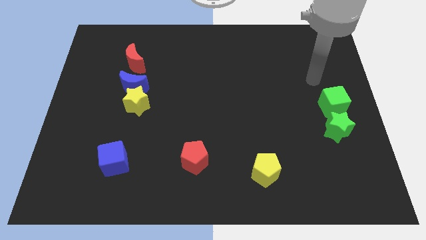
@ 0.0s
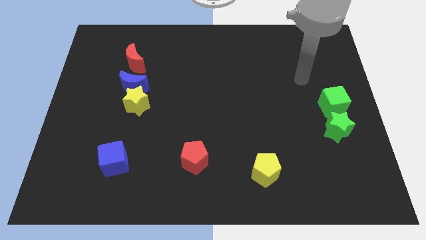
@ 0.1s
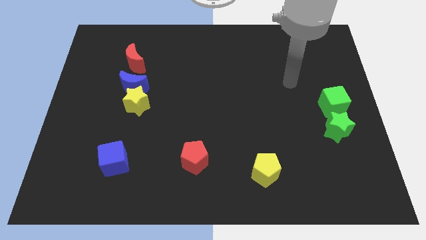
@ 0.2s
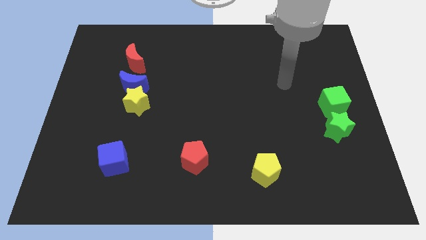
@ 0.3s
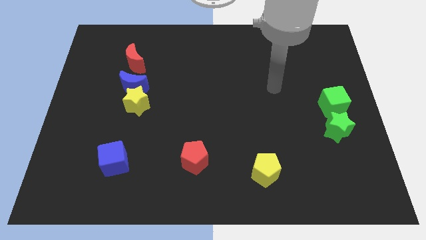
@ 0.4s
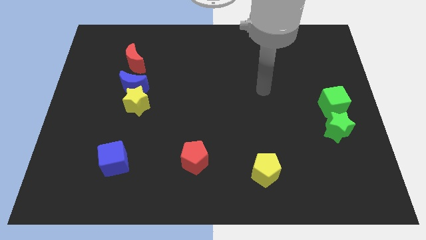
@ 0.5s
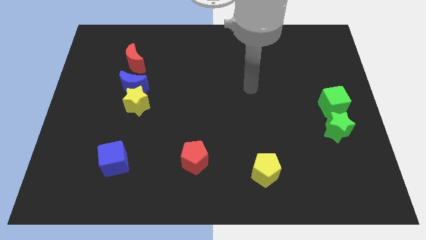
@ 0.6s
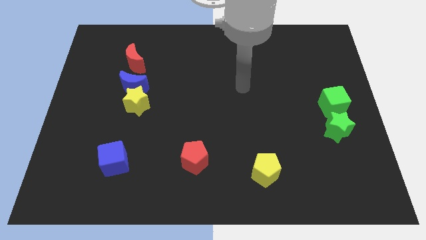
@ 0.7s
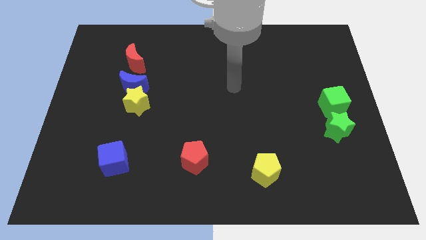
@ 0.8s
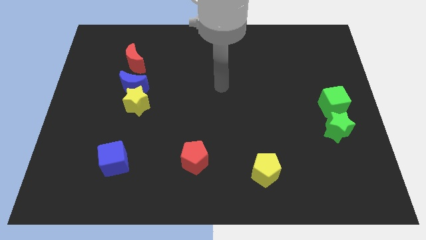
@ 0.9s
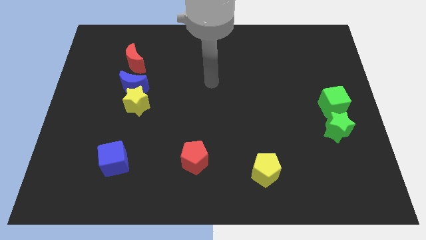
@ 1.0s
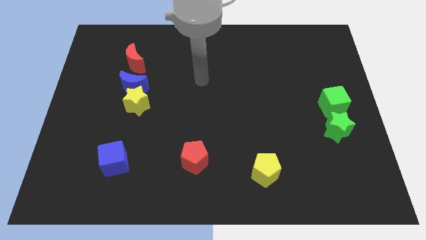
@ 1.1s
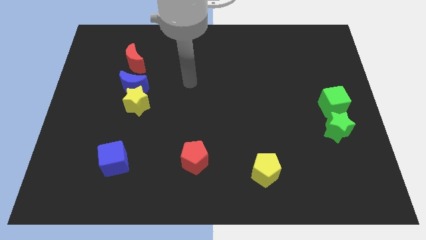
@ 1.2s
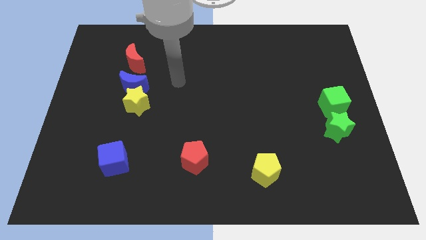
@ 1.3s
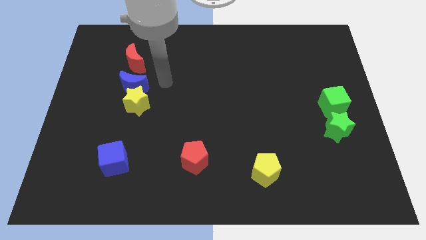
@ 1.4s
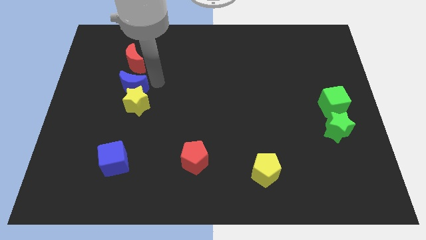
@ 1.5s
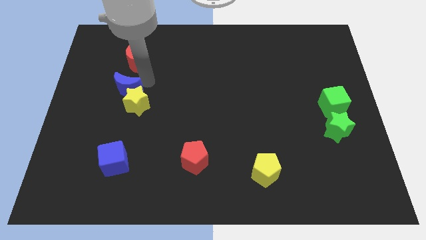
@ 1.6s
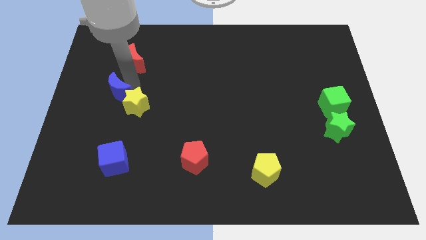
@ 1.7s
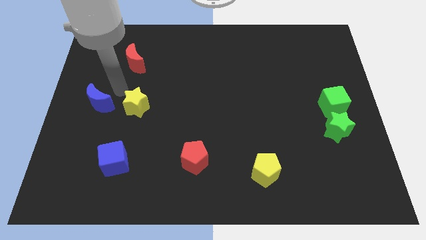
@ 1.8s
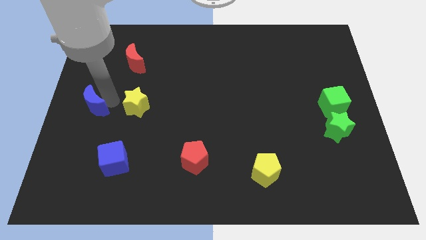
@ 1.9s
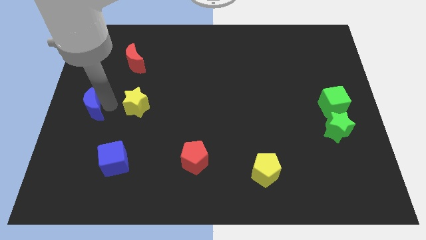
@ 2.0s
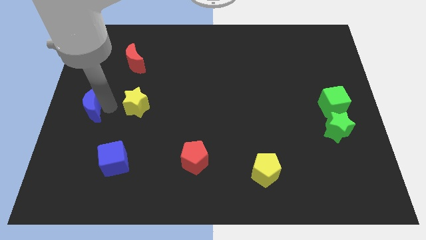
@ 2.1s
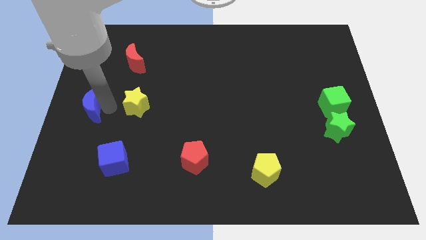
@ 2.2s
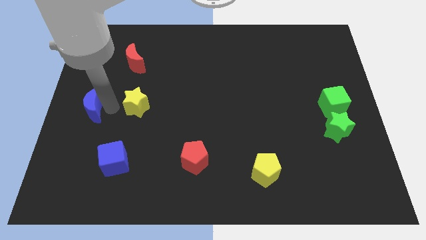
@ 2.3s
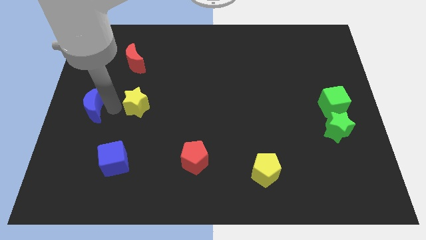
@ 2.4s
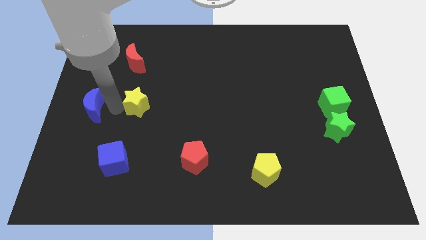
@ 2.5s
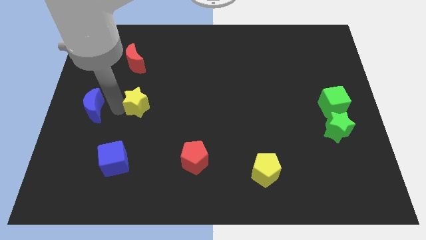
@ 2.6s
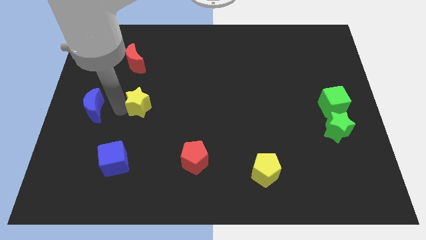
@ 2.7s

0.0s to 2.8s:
move the yellow star away from the blue moon

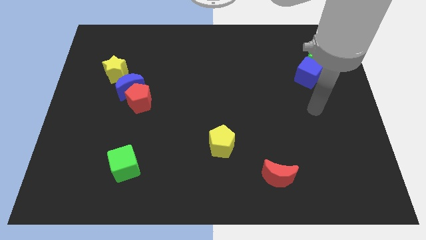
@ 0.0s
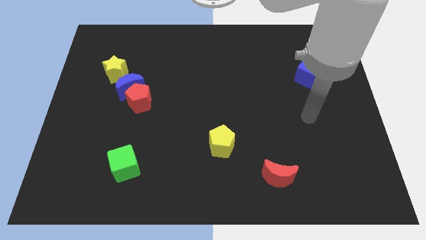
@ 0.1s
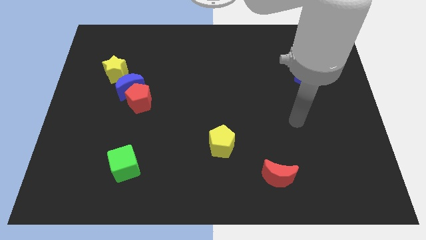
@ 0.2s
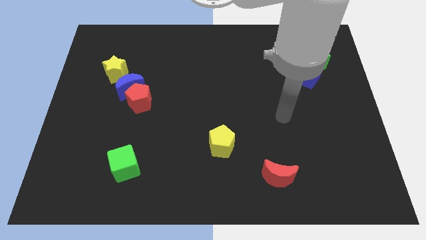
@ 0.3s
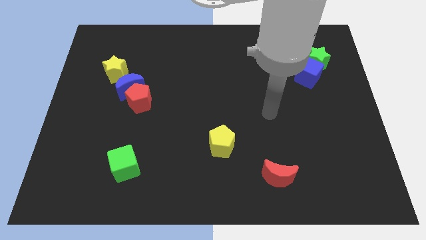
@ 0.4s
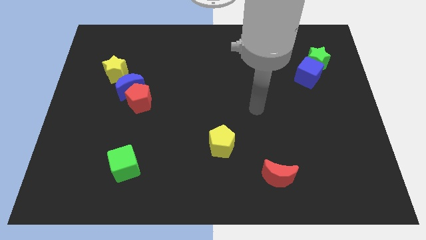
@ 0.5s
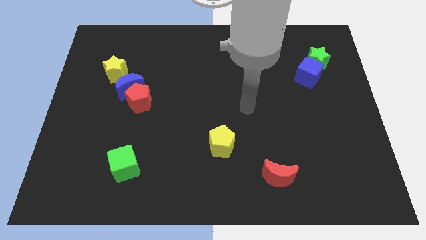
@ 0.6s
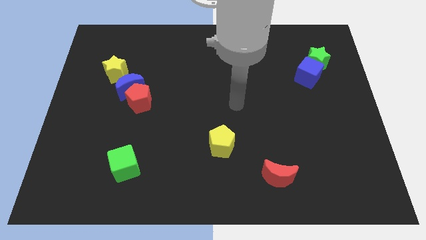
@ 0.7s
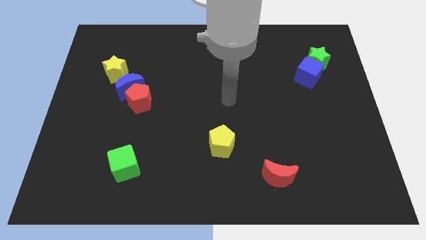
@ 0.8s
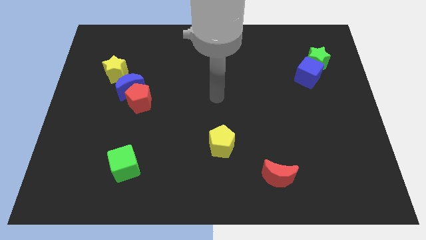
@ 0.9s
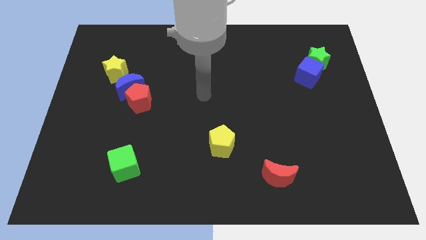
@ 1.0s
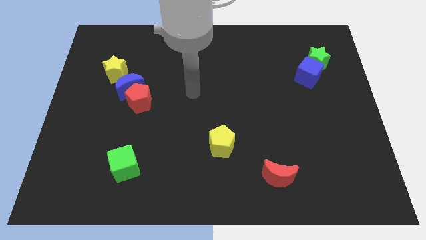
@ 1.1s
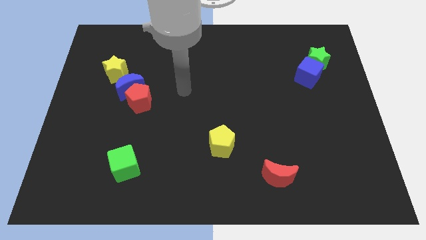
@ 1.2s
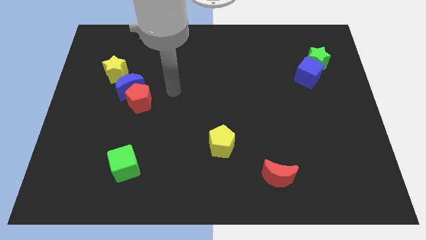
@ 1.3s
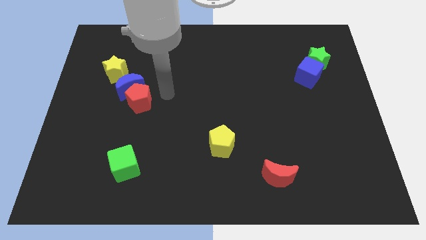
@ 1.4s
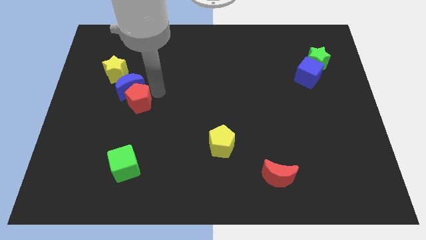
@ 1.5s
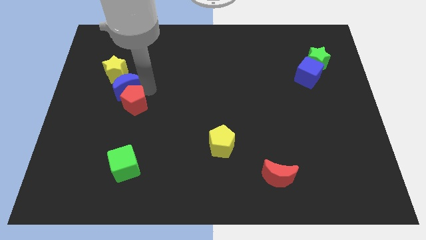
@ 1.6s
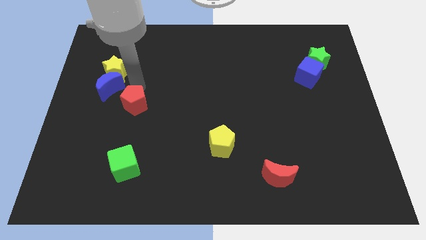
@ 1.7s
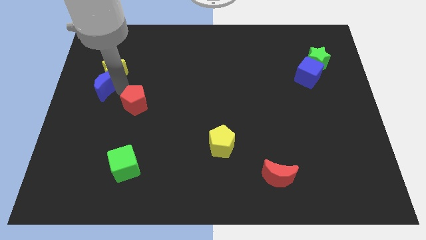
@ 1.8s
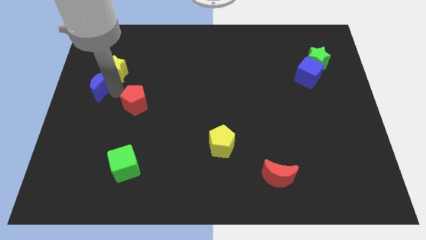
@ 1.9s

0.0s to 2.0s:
separate the red pentagon from the blue moon

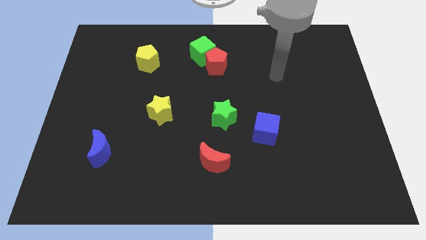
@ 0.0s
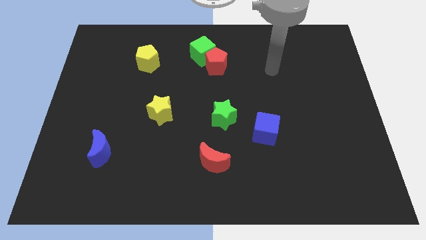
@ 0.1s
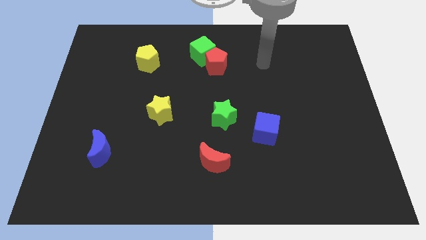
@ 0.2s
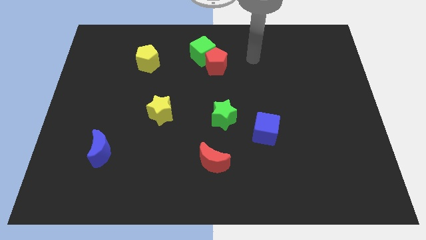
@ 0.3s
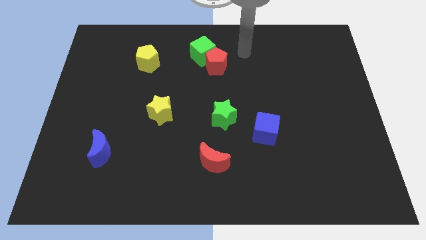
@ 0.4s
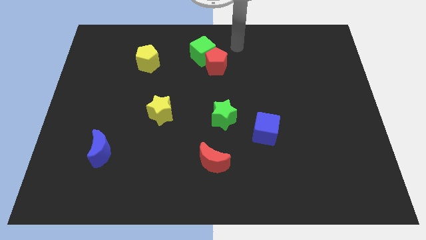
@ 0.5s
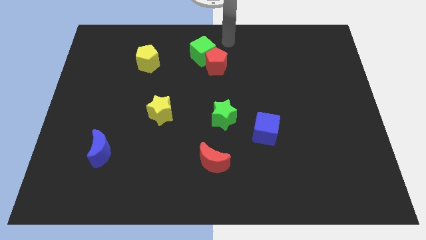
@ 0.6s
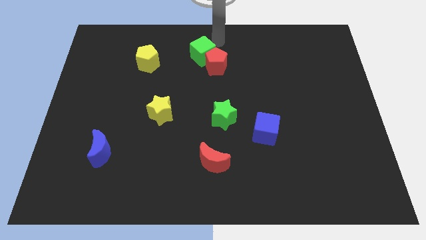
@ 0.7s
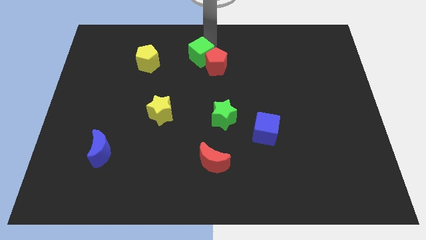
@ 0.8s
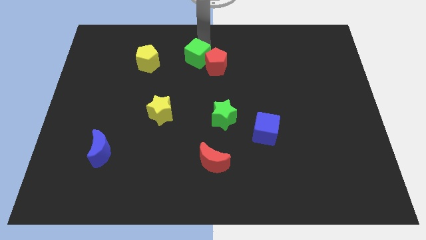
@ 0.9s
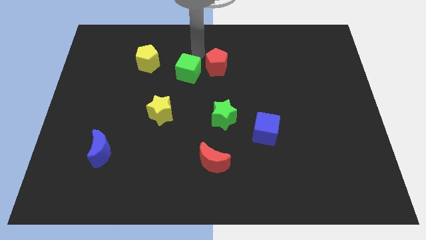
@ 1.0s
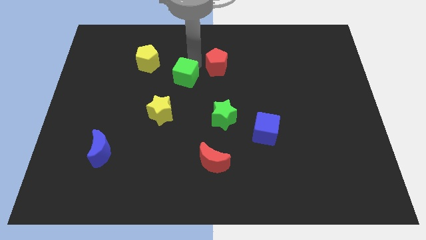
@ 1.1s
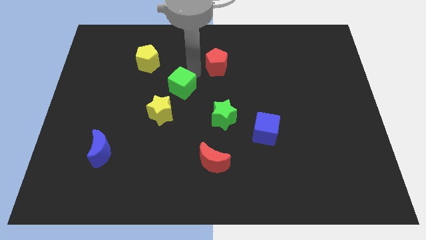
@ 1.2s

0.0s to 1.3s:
separate the red pentagon from the green cube

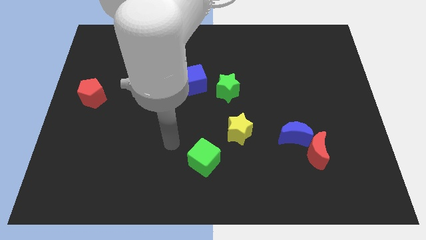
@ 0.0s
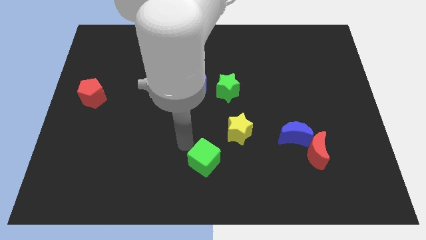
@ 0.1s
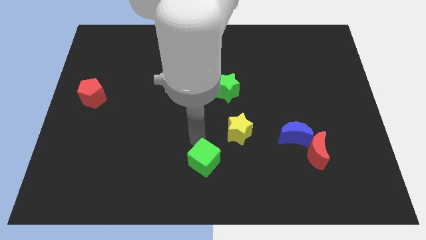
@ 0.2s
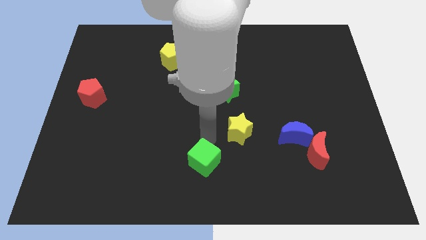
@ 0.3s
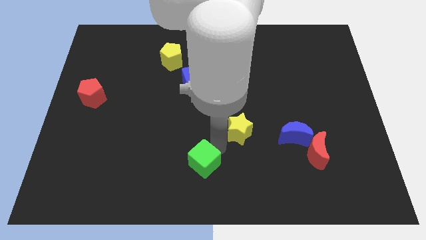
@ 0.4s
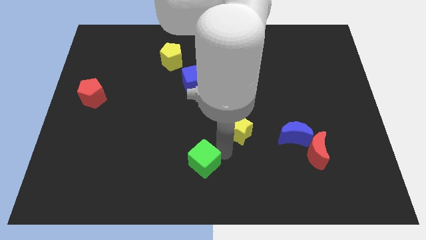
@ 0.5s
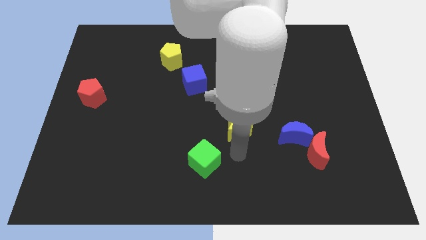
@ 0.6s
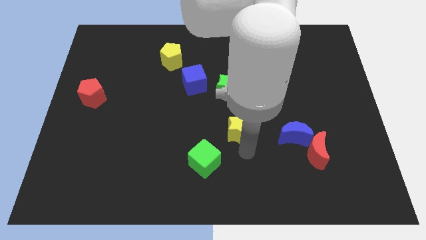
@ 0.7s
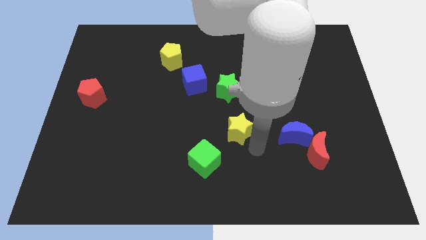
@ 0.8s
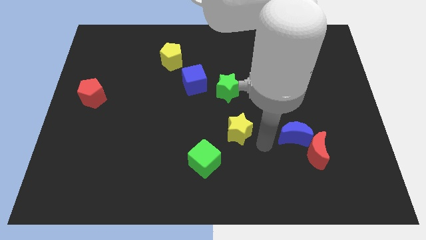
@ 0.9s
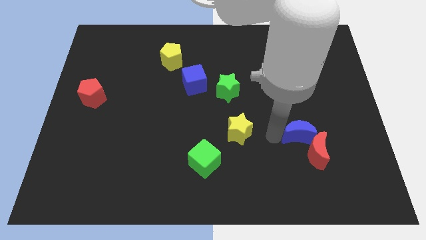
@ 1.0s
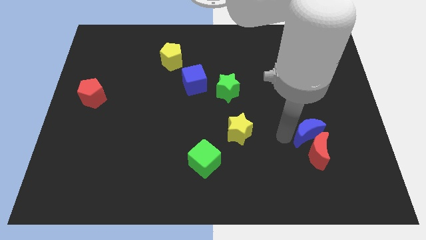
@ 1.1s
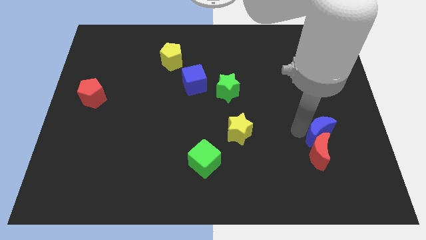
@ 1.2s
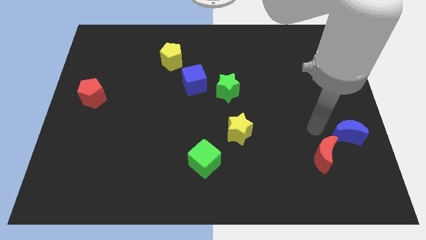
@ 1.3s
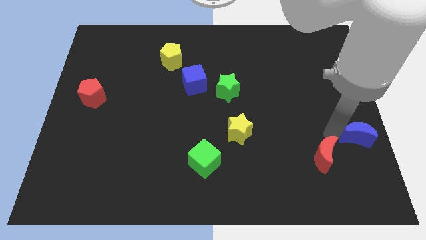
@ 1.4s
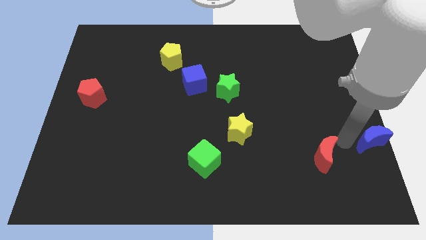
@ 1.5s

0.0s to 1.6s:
separate the red moon from the blue moon

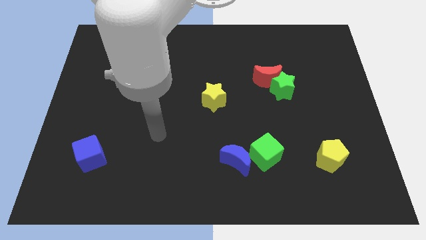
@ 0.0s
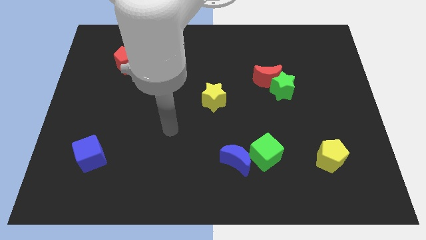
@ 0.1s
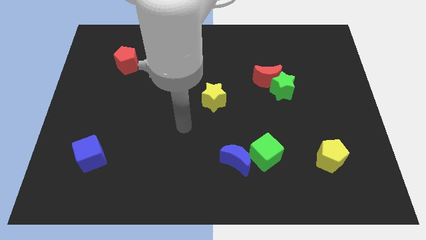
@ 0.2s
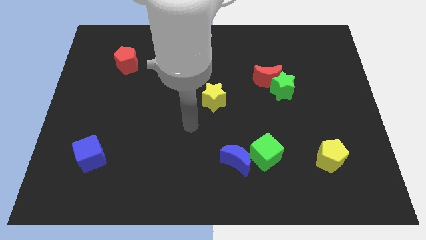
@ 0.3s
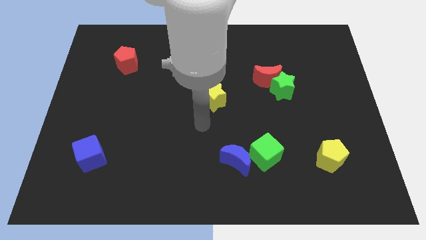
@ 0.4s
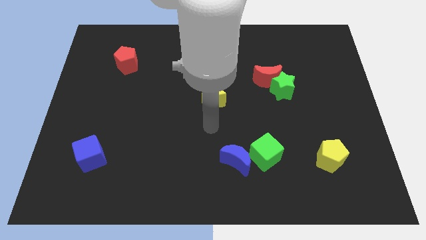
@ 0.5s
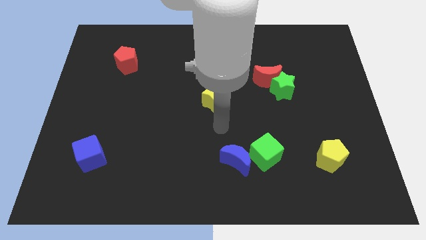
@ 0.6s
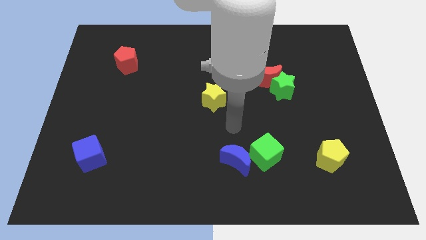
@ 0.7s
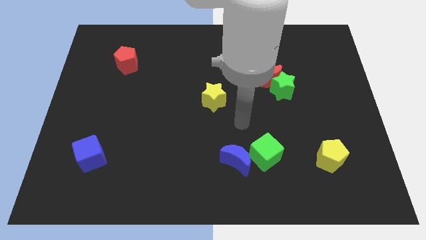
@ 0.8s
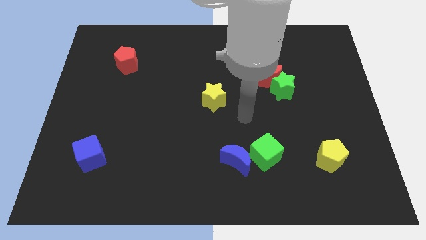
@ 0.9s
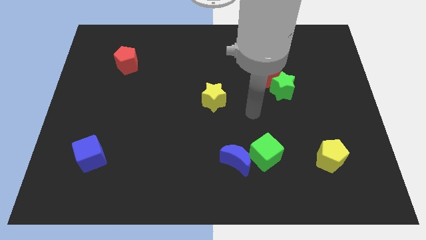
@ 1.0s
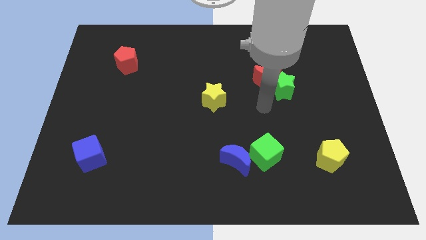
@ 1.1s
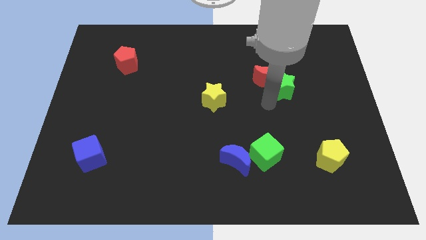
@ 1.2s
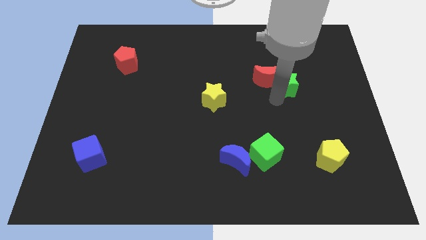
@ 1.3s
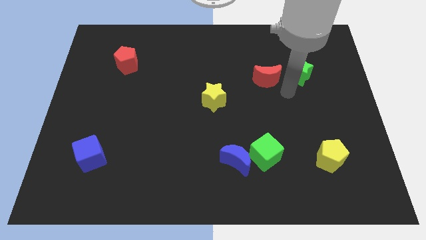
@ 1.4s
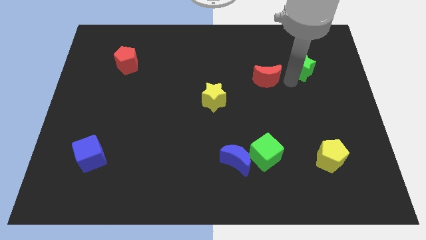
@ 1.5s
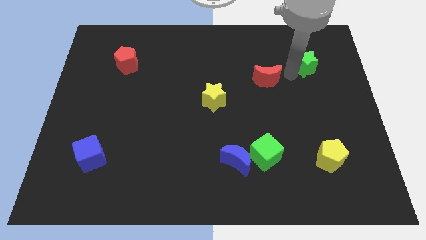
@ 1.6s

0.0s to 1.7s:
separate the red moon from the green star
